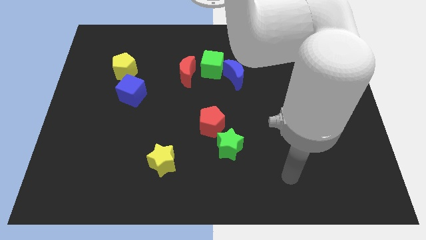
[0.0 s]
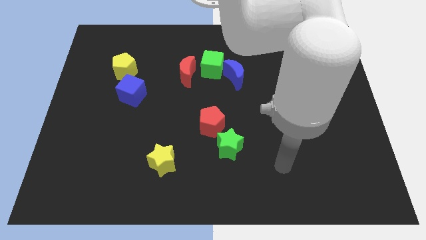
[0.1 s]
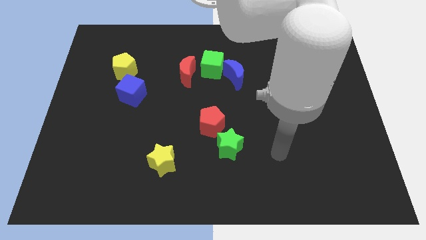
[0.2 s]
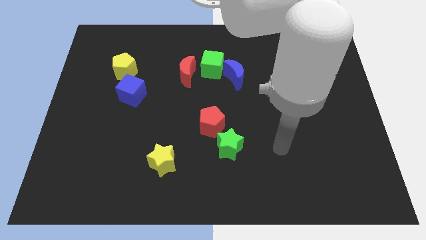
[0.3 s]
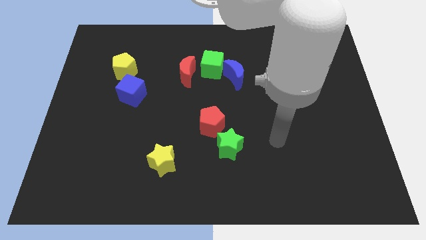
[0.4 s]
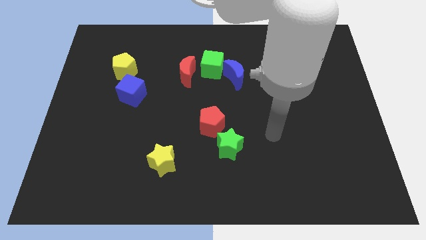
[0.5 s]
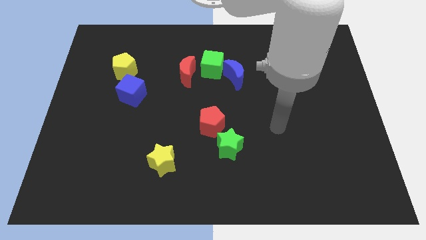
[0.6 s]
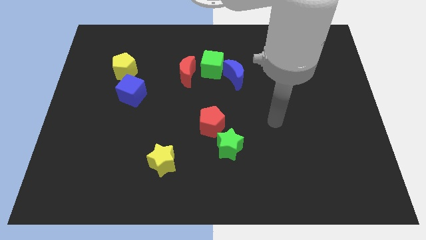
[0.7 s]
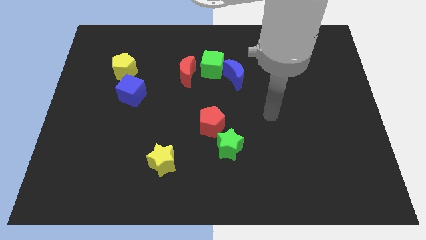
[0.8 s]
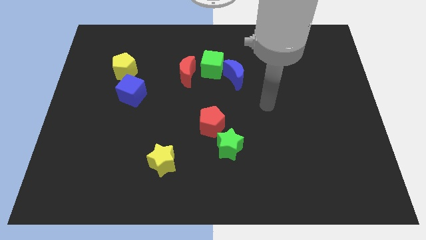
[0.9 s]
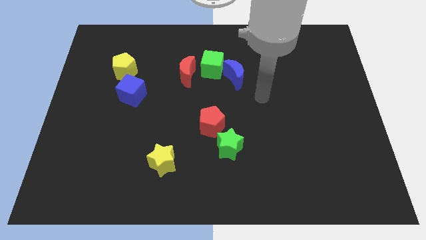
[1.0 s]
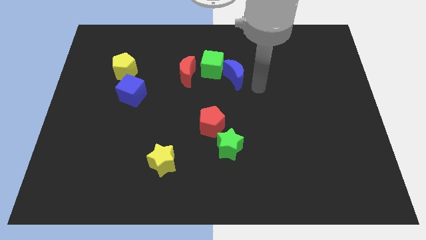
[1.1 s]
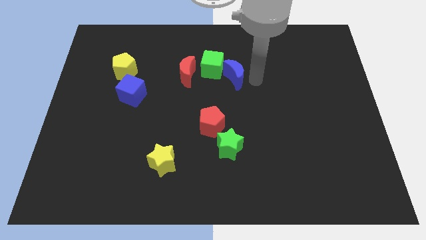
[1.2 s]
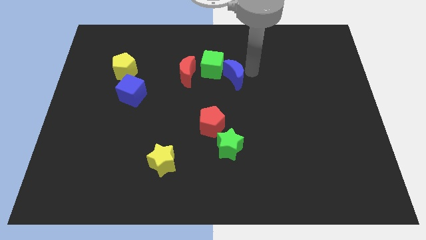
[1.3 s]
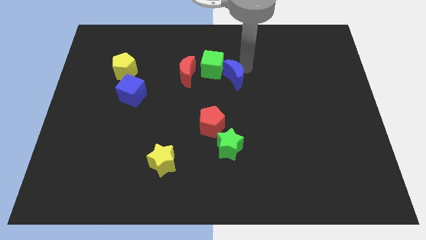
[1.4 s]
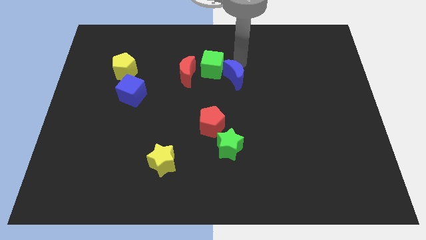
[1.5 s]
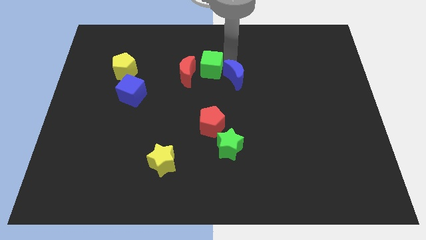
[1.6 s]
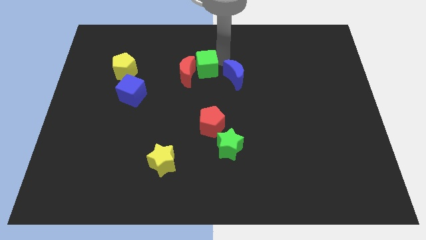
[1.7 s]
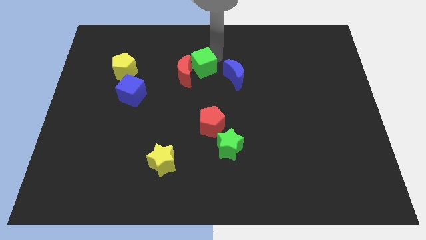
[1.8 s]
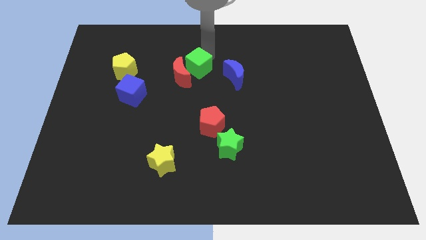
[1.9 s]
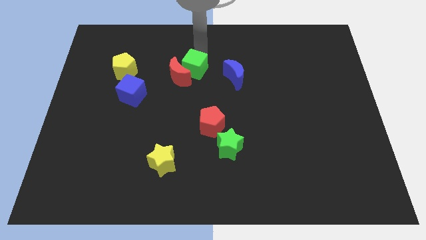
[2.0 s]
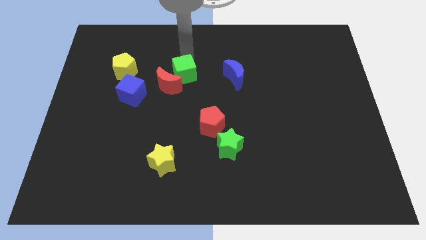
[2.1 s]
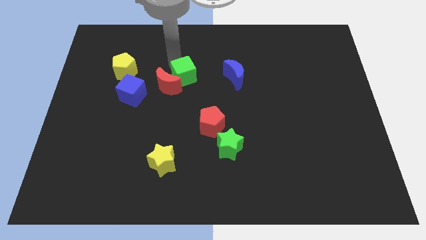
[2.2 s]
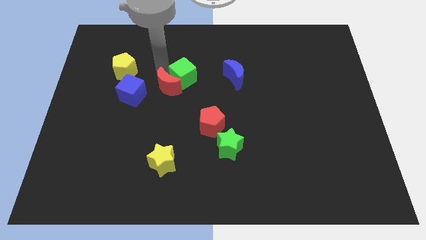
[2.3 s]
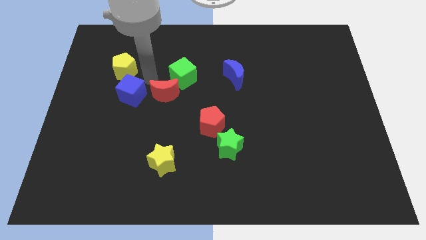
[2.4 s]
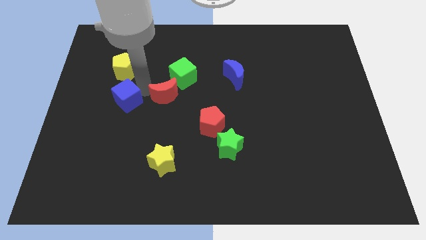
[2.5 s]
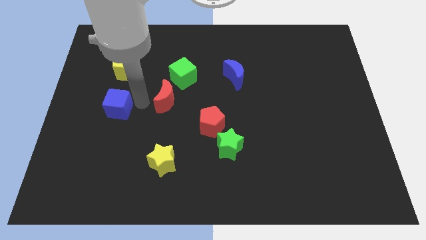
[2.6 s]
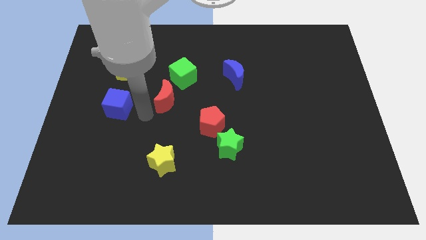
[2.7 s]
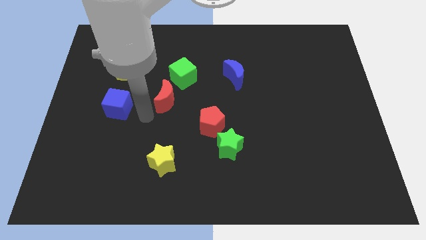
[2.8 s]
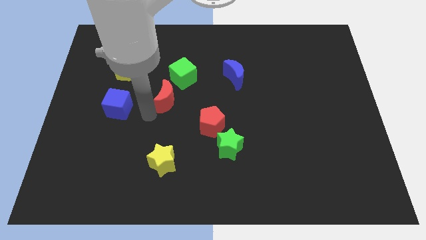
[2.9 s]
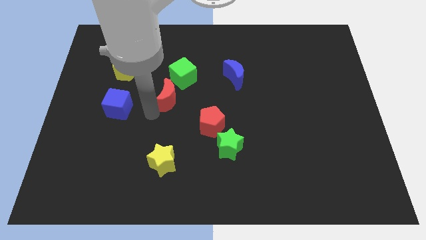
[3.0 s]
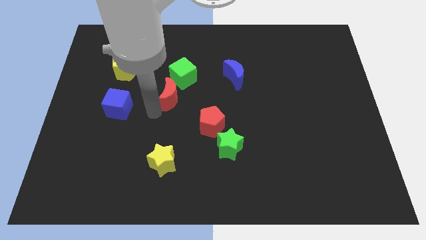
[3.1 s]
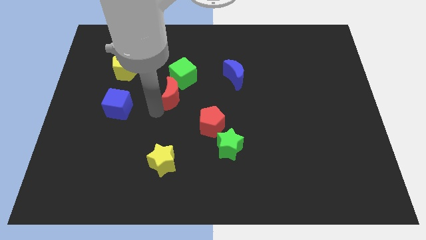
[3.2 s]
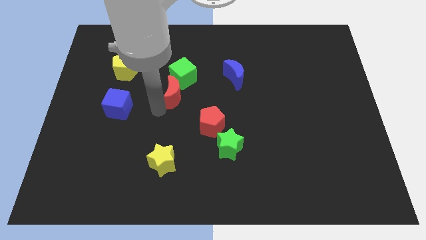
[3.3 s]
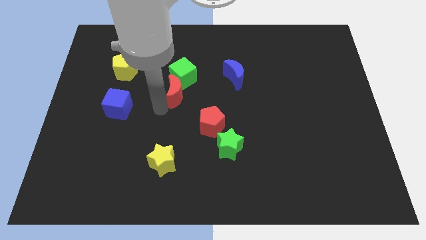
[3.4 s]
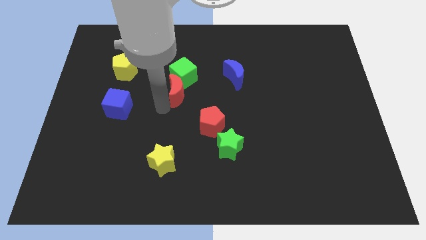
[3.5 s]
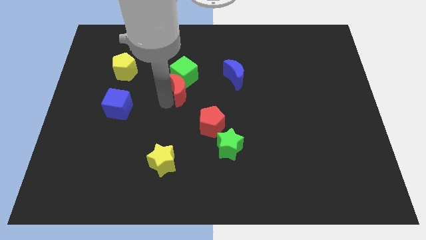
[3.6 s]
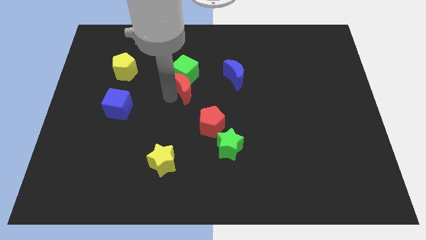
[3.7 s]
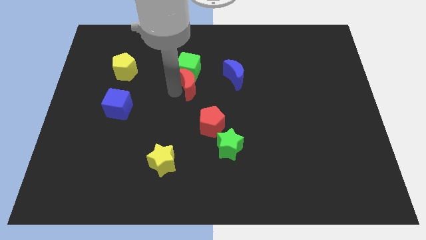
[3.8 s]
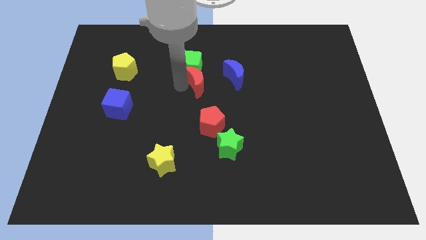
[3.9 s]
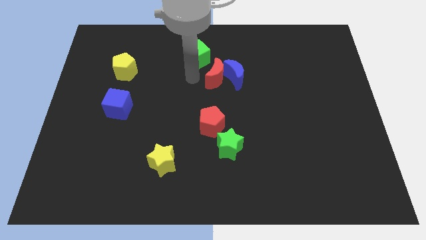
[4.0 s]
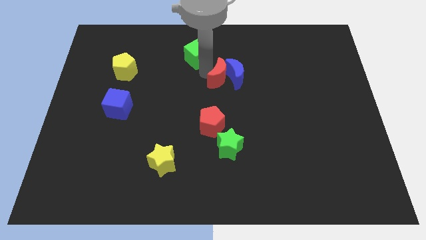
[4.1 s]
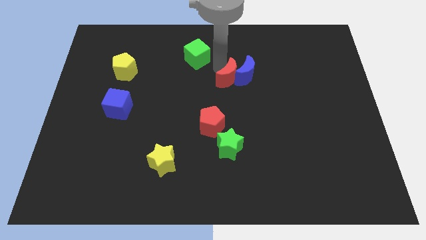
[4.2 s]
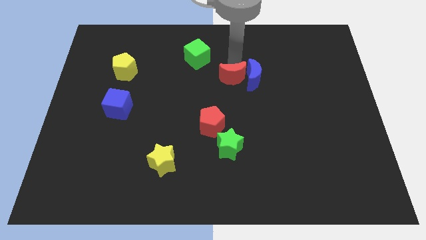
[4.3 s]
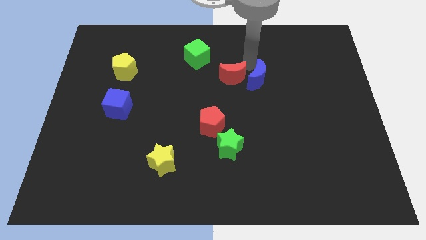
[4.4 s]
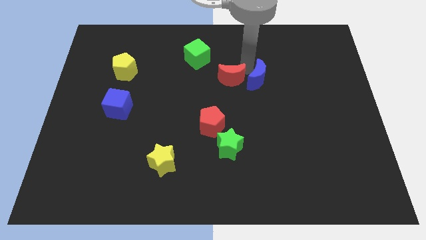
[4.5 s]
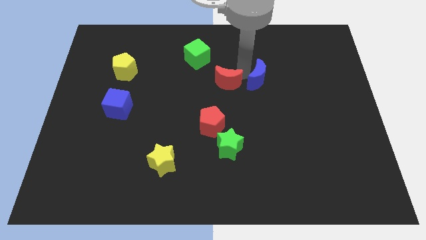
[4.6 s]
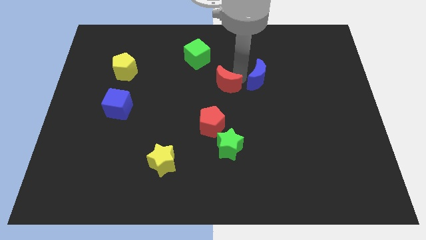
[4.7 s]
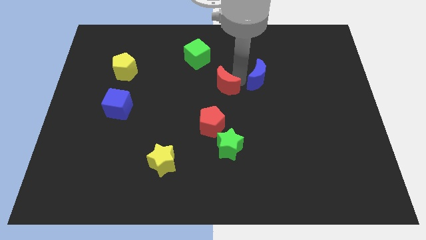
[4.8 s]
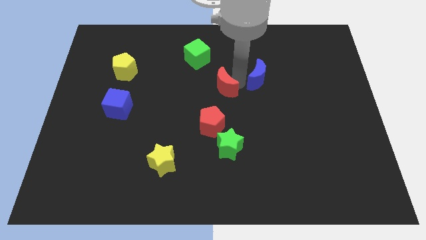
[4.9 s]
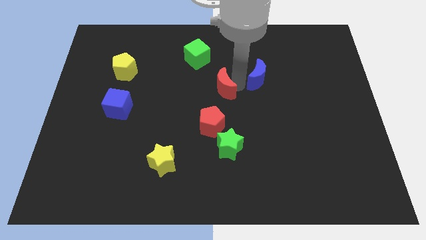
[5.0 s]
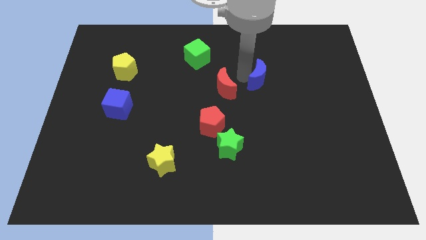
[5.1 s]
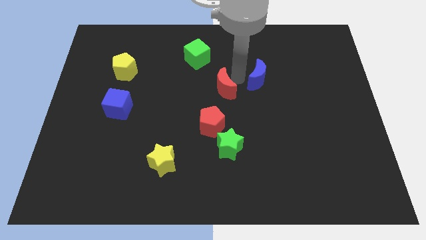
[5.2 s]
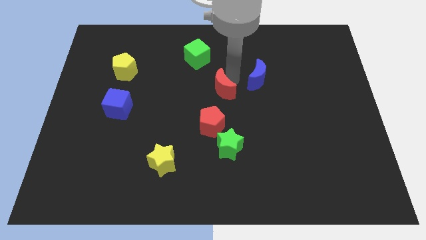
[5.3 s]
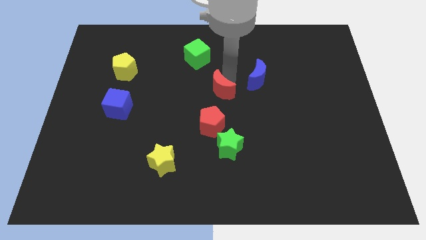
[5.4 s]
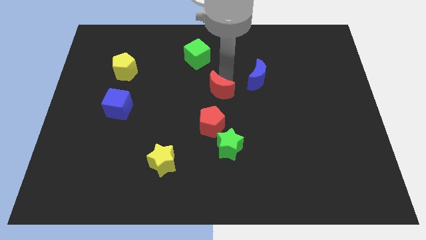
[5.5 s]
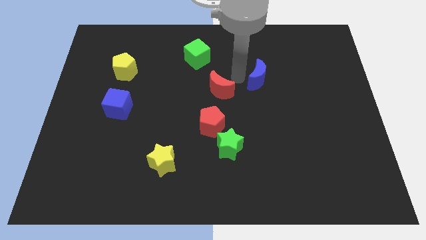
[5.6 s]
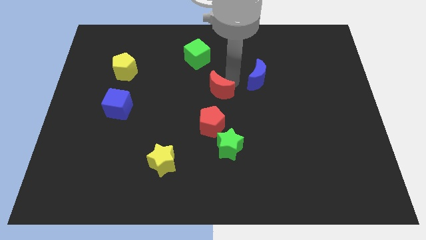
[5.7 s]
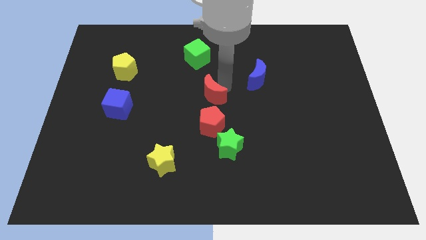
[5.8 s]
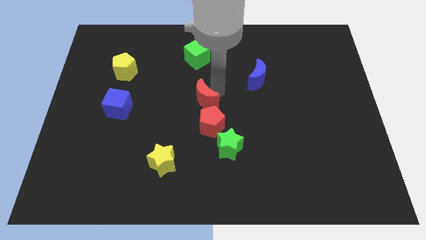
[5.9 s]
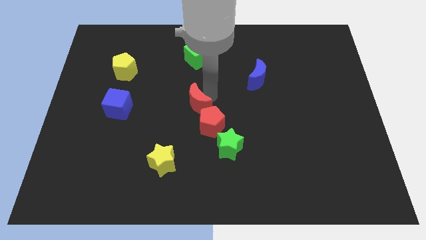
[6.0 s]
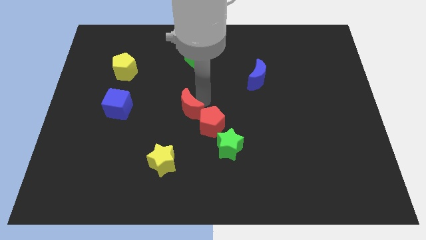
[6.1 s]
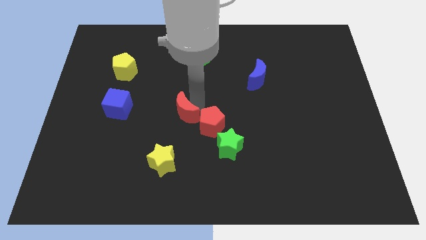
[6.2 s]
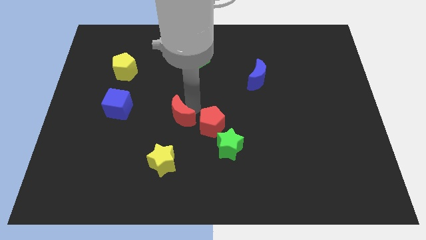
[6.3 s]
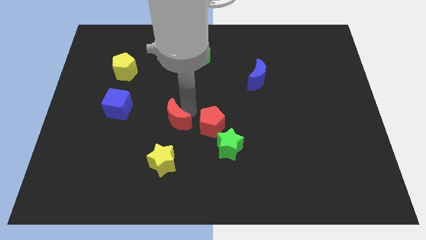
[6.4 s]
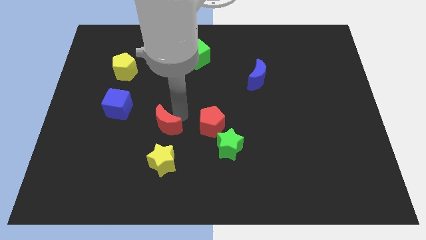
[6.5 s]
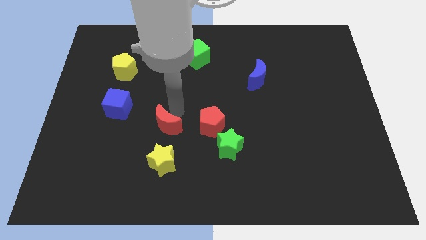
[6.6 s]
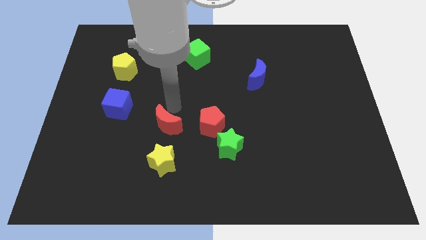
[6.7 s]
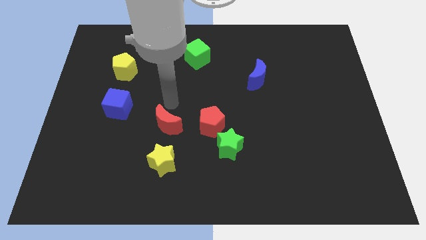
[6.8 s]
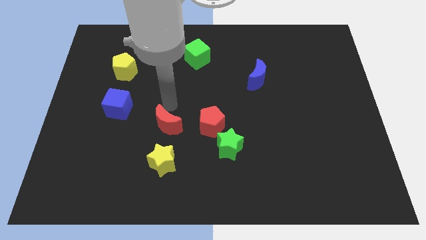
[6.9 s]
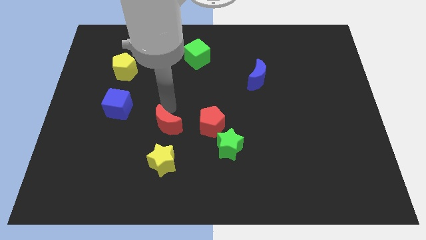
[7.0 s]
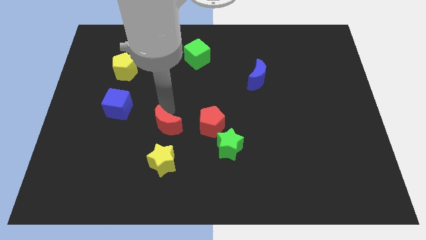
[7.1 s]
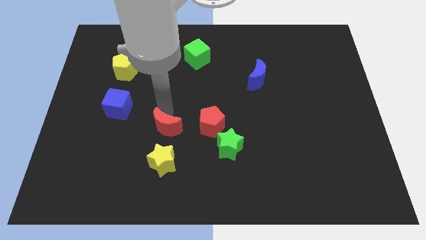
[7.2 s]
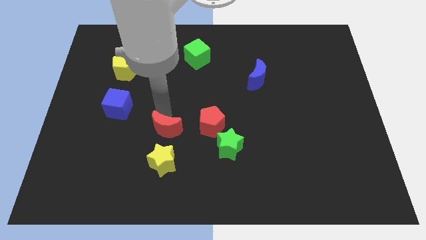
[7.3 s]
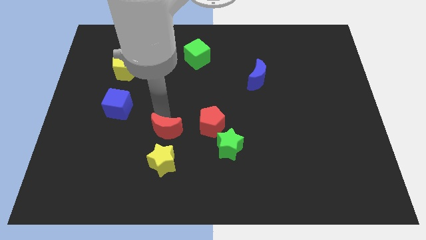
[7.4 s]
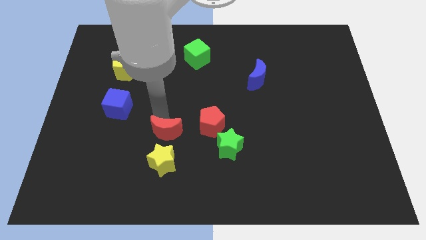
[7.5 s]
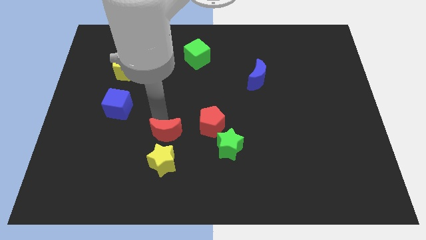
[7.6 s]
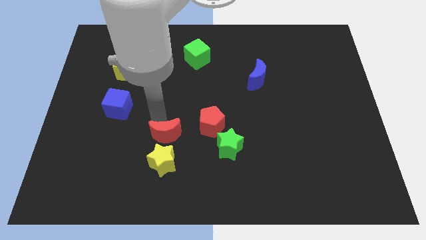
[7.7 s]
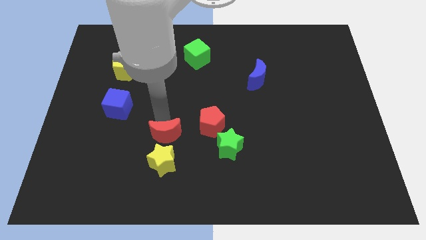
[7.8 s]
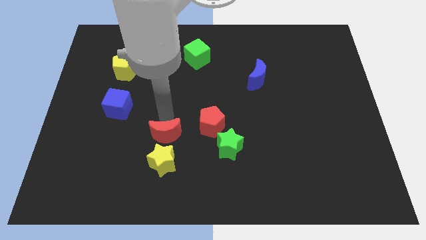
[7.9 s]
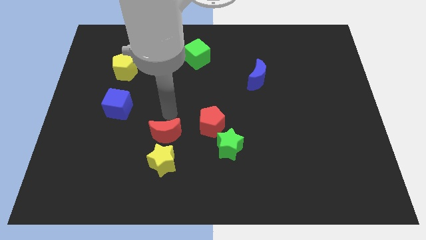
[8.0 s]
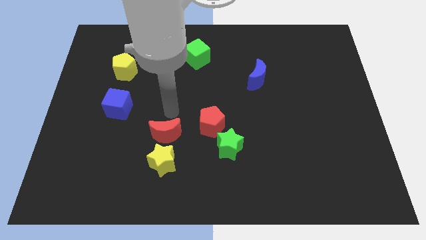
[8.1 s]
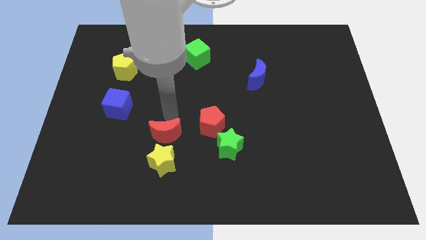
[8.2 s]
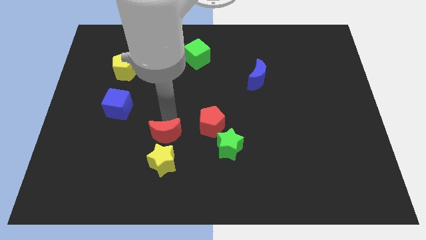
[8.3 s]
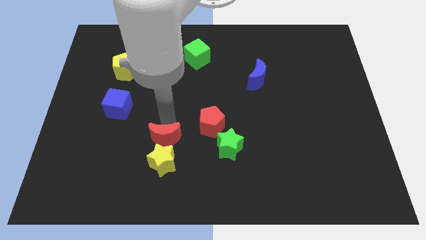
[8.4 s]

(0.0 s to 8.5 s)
put the red moon to the yellow star

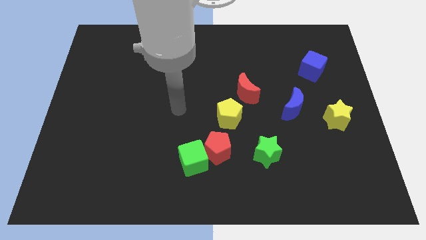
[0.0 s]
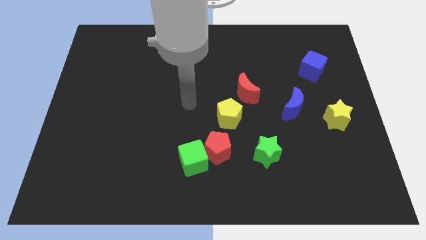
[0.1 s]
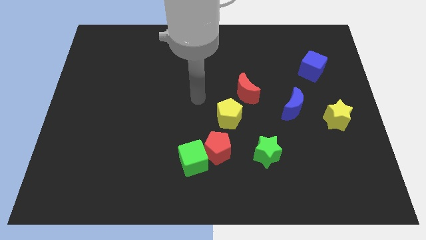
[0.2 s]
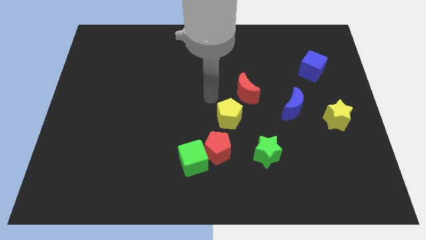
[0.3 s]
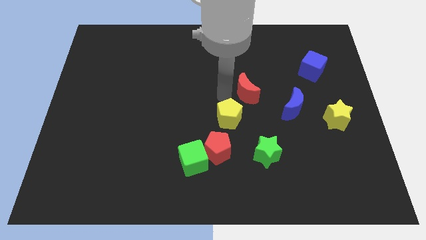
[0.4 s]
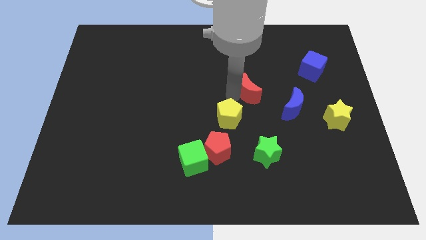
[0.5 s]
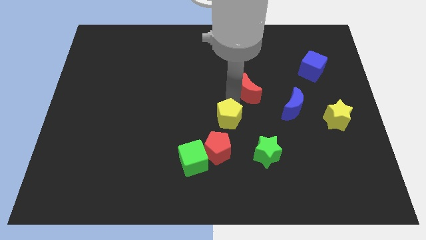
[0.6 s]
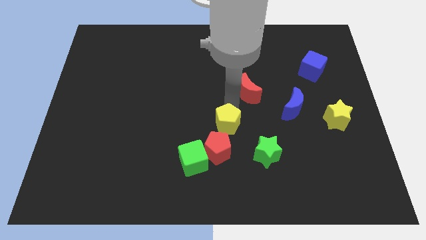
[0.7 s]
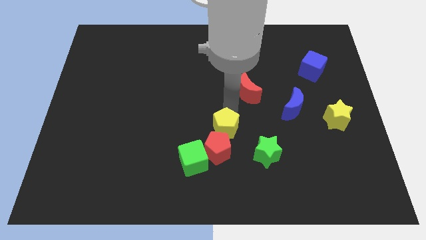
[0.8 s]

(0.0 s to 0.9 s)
move the yellow pentagon close to the red pentagon
